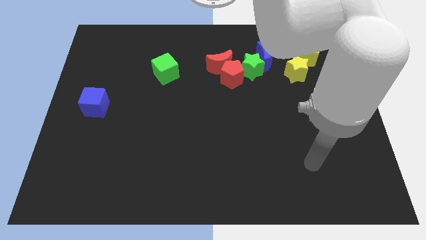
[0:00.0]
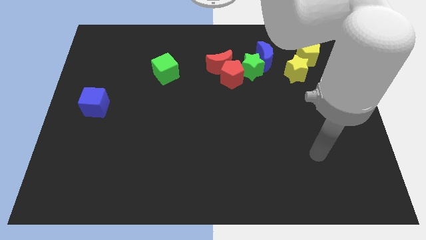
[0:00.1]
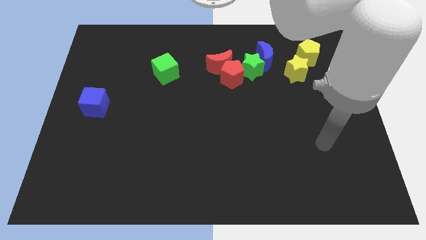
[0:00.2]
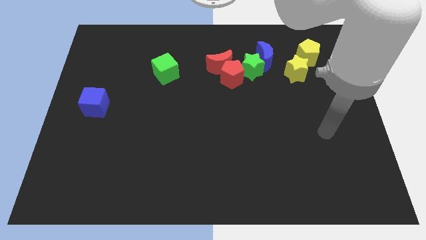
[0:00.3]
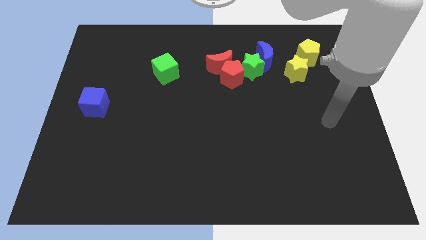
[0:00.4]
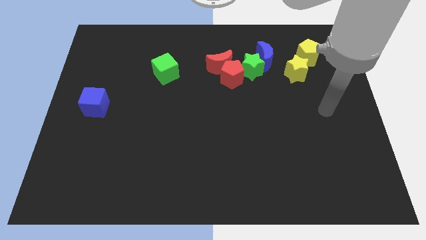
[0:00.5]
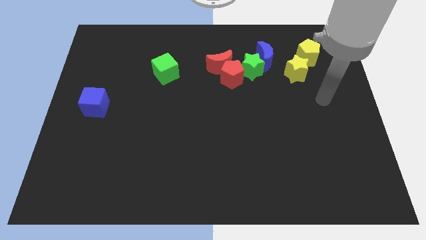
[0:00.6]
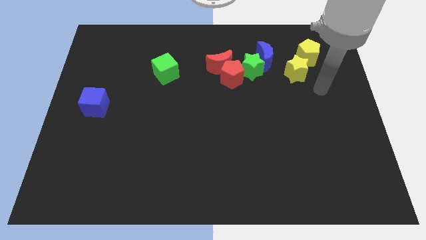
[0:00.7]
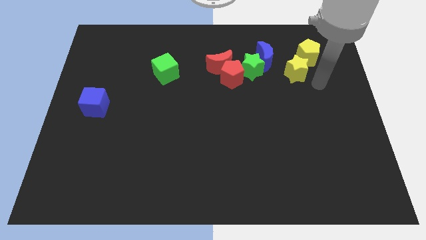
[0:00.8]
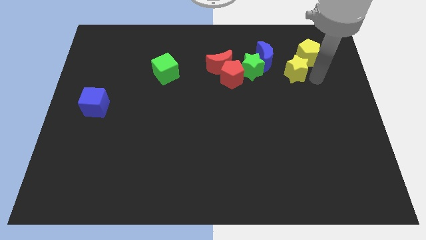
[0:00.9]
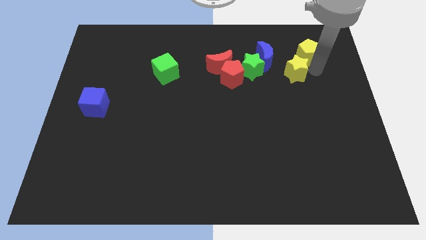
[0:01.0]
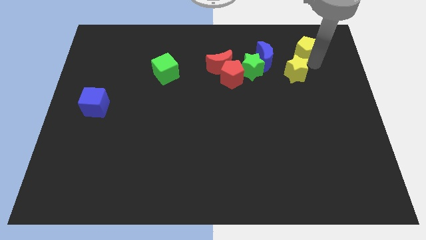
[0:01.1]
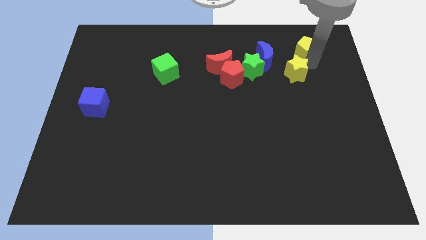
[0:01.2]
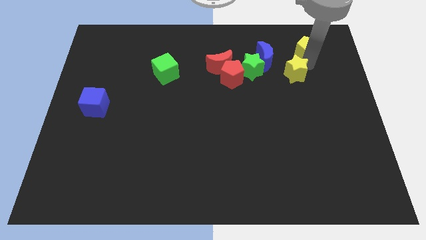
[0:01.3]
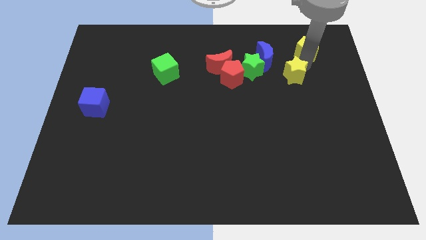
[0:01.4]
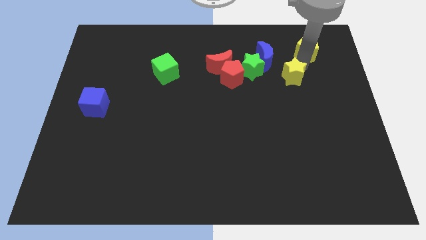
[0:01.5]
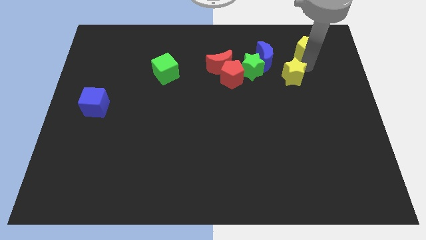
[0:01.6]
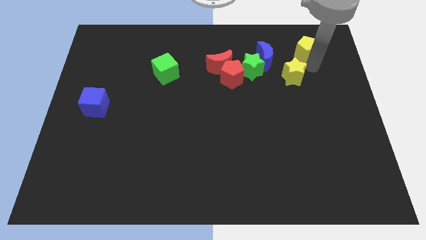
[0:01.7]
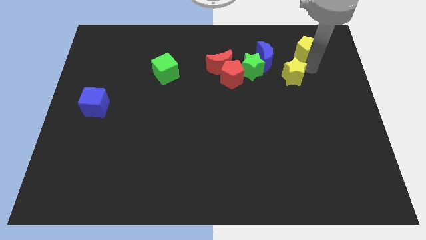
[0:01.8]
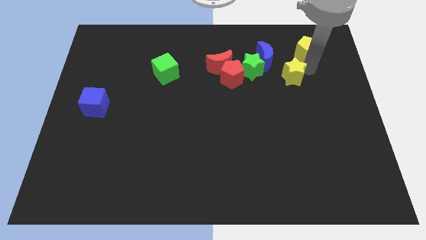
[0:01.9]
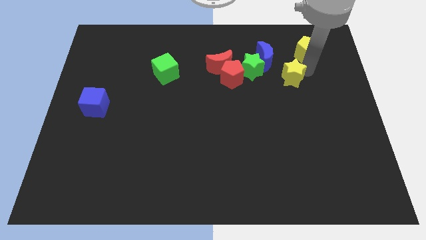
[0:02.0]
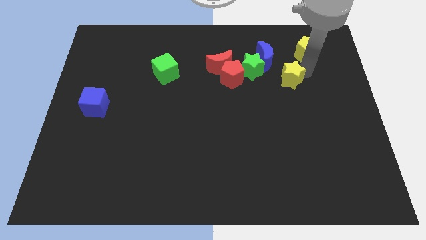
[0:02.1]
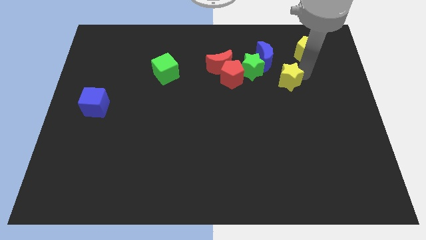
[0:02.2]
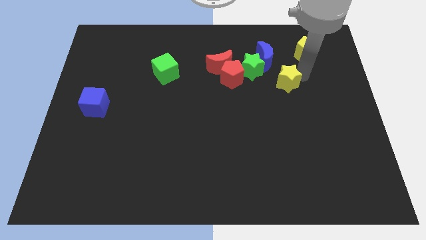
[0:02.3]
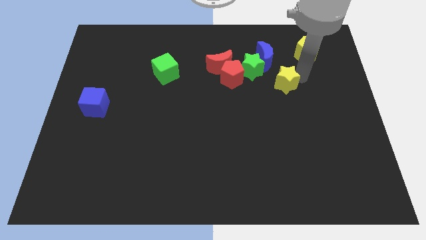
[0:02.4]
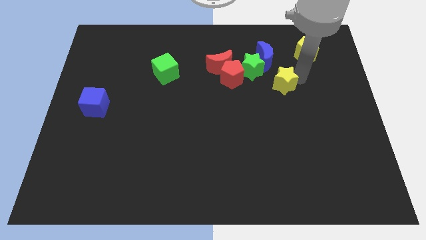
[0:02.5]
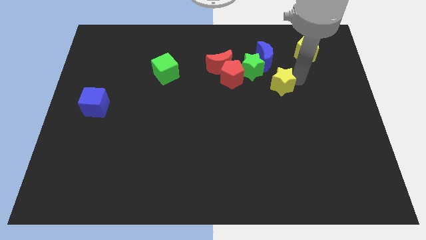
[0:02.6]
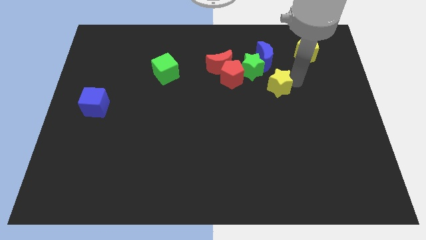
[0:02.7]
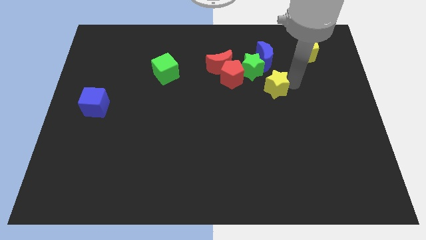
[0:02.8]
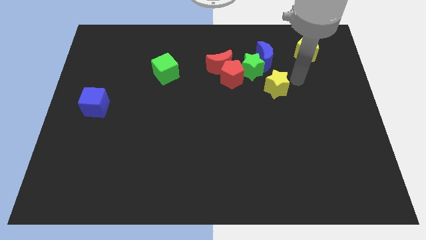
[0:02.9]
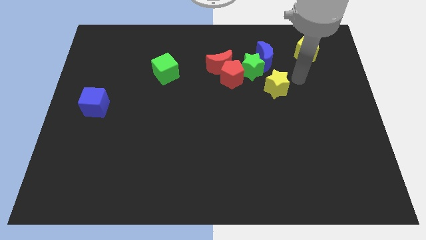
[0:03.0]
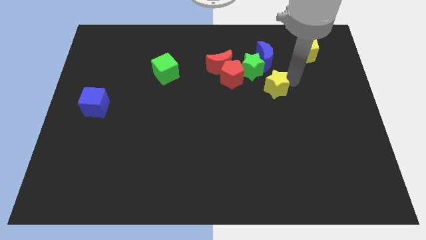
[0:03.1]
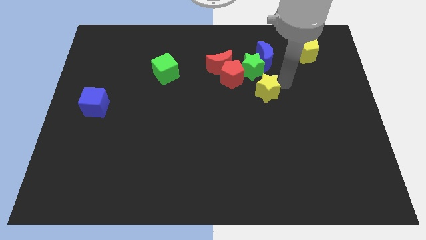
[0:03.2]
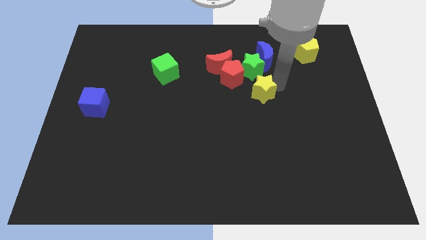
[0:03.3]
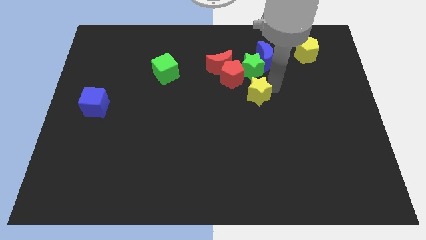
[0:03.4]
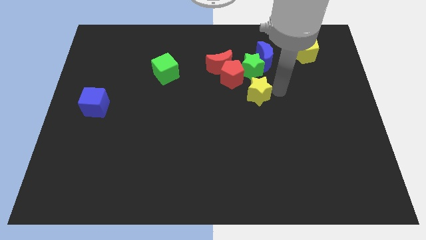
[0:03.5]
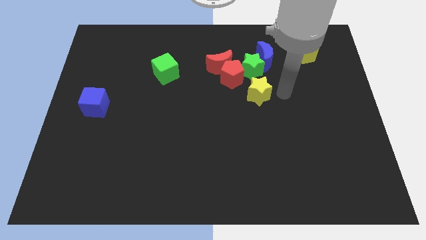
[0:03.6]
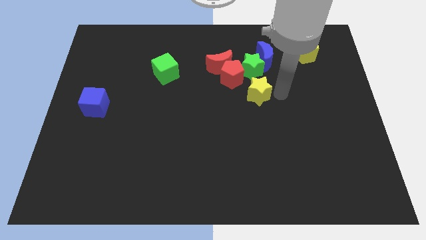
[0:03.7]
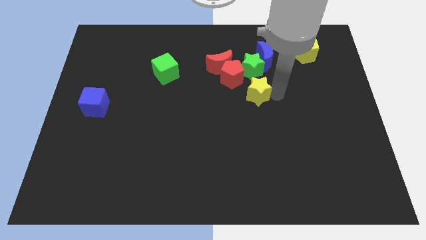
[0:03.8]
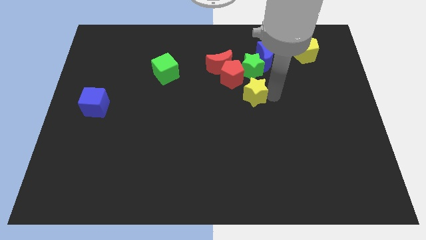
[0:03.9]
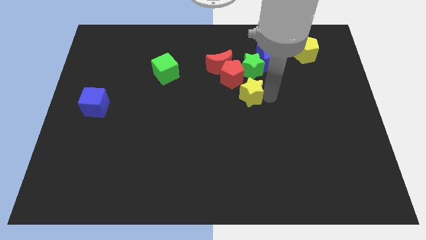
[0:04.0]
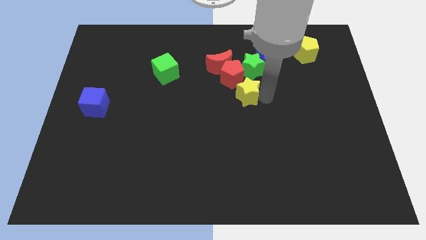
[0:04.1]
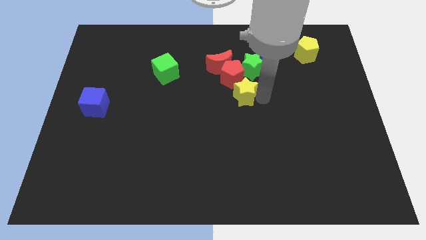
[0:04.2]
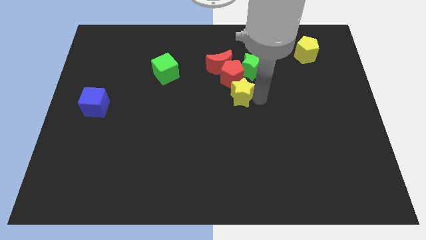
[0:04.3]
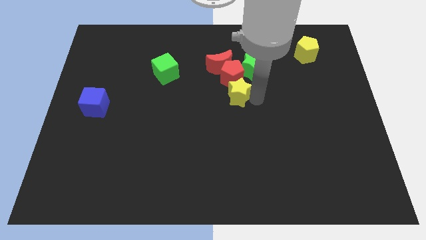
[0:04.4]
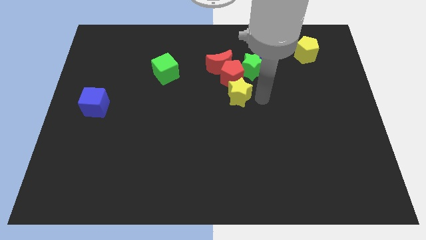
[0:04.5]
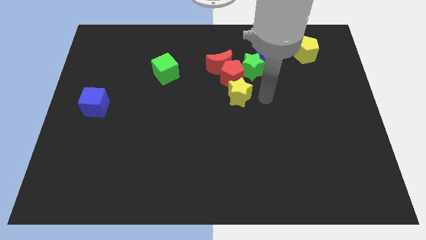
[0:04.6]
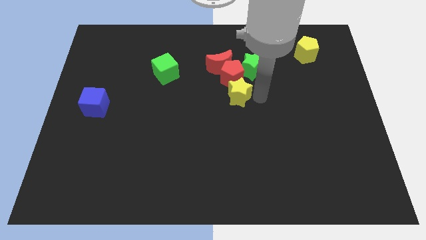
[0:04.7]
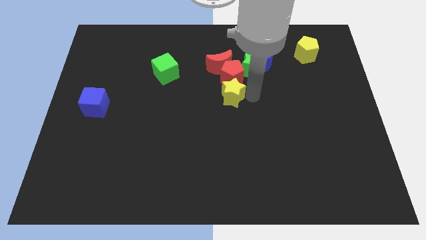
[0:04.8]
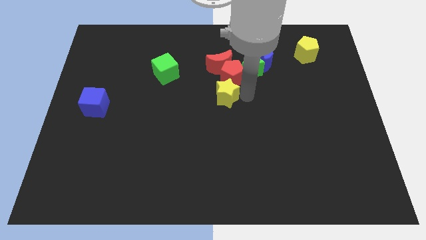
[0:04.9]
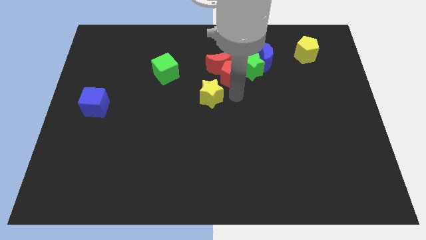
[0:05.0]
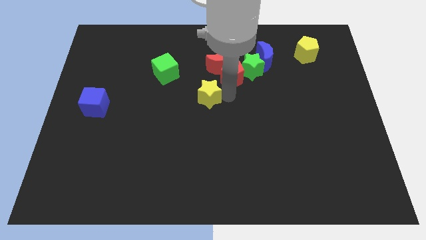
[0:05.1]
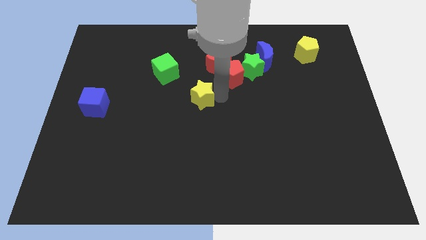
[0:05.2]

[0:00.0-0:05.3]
move the yellow star to the bottom right side of the green cube

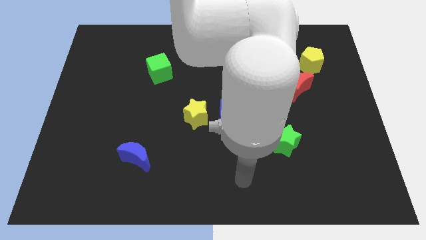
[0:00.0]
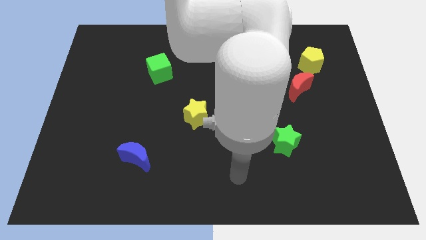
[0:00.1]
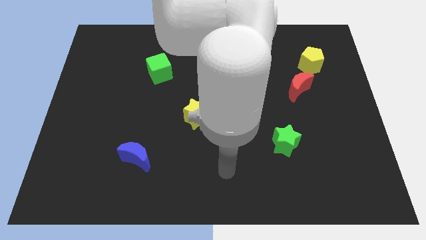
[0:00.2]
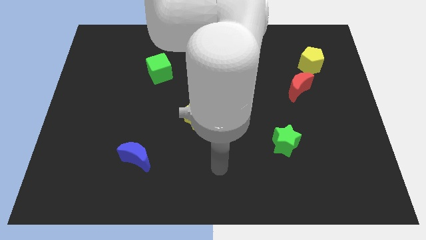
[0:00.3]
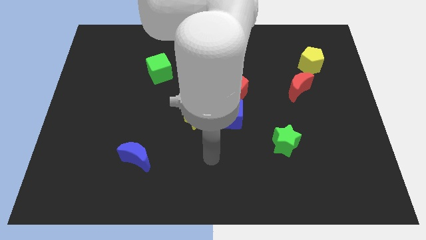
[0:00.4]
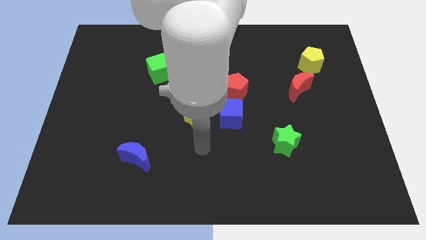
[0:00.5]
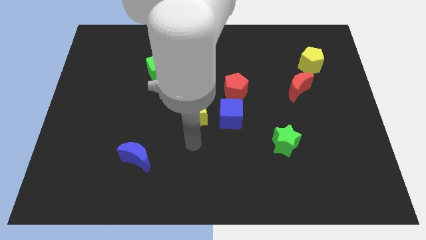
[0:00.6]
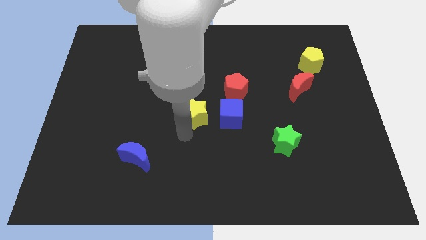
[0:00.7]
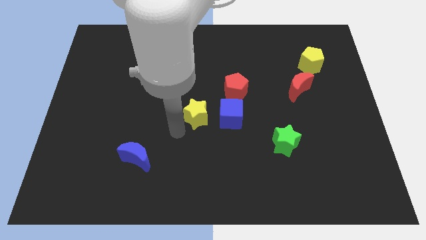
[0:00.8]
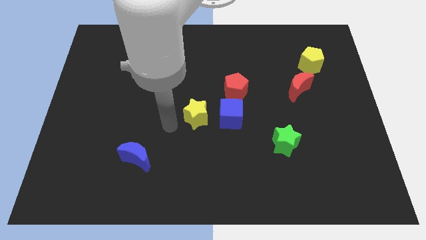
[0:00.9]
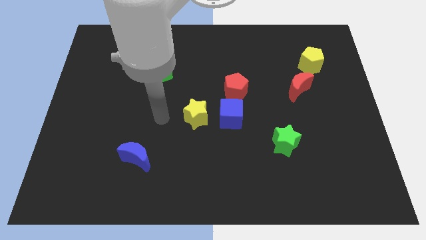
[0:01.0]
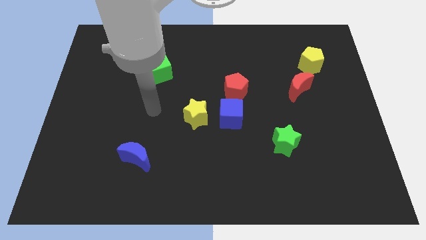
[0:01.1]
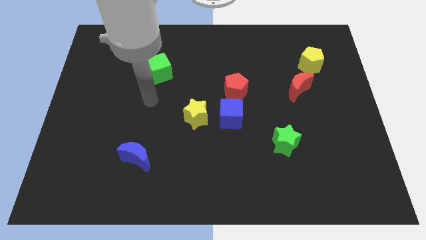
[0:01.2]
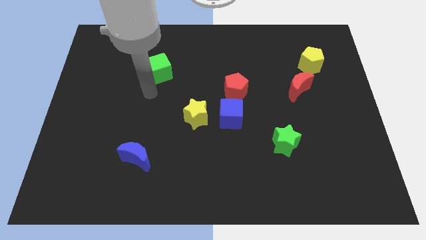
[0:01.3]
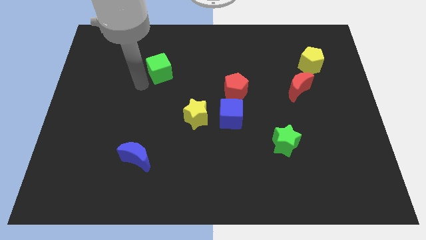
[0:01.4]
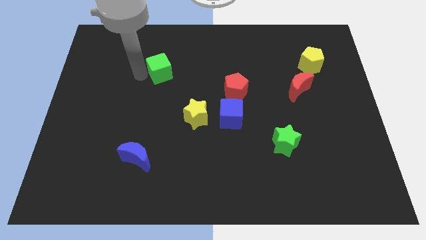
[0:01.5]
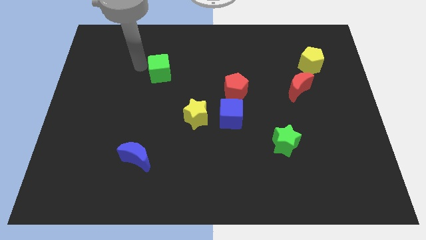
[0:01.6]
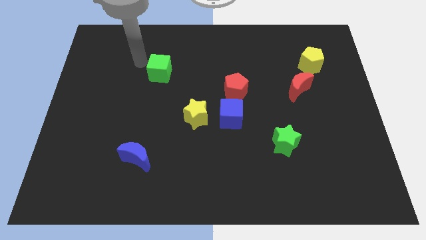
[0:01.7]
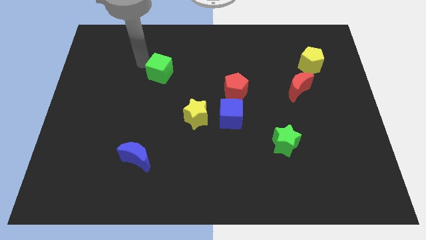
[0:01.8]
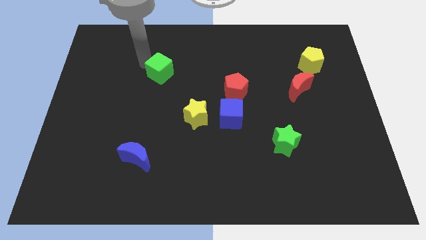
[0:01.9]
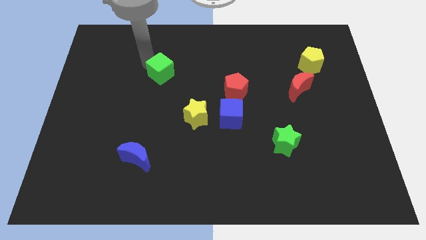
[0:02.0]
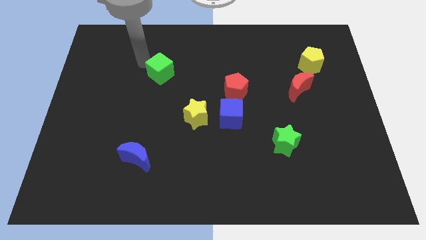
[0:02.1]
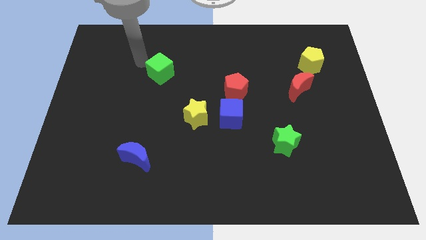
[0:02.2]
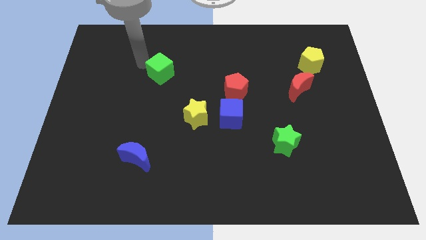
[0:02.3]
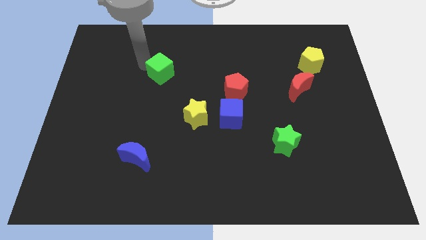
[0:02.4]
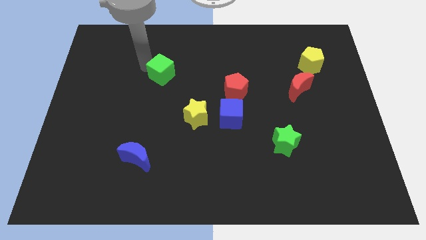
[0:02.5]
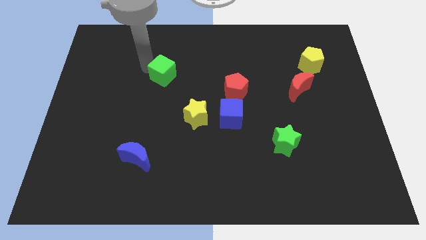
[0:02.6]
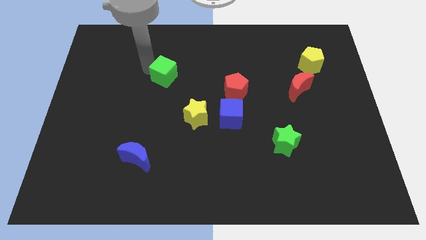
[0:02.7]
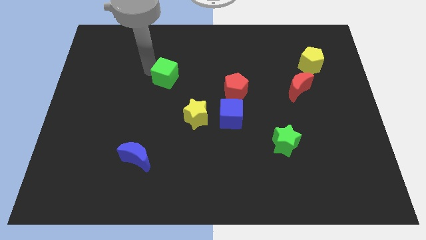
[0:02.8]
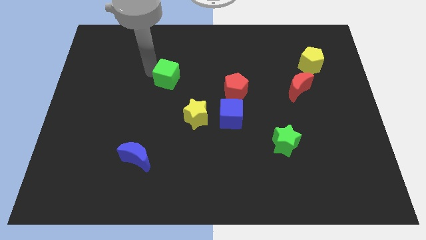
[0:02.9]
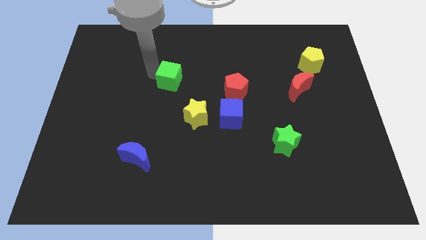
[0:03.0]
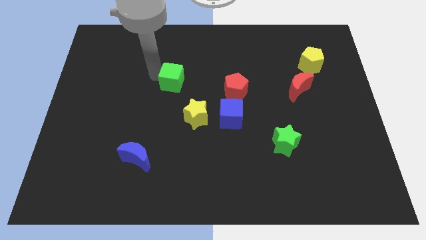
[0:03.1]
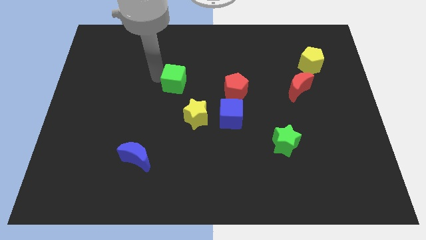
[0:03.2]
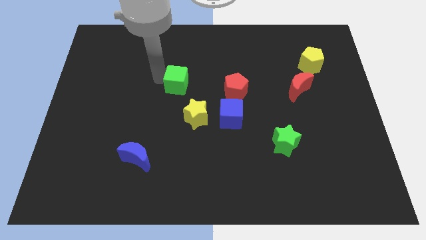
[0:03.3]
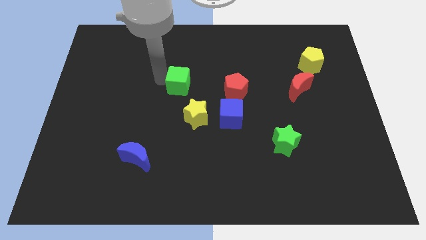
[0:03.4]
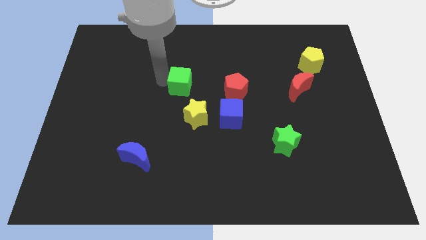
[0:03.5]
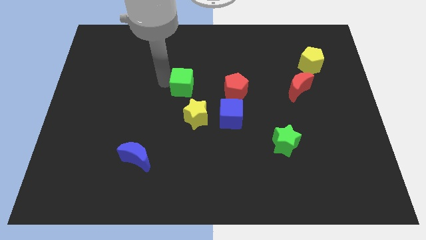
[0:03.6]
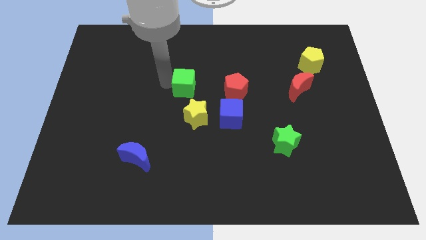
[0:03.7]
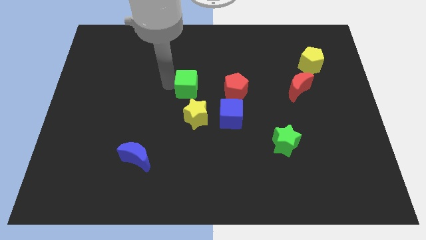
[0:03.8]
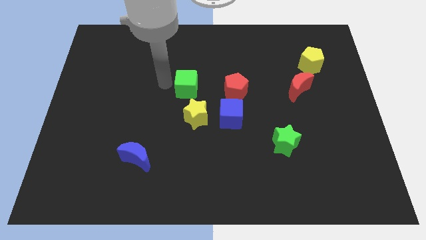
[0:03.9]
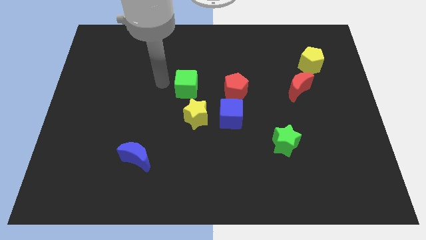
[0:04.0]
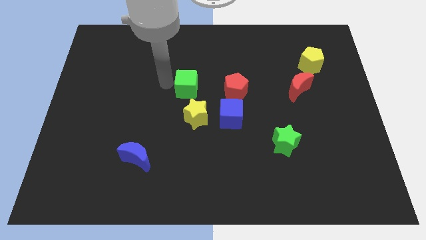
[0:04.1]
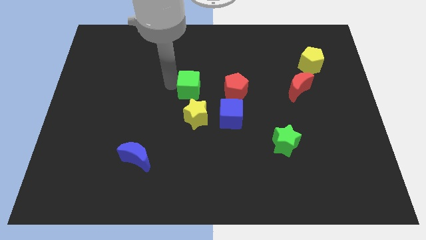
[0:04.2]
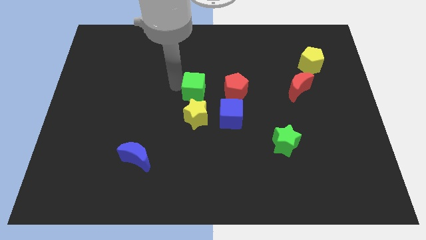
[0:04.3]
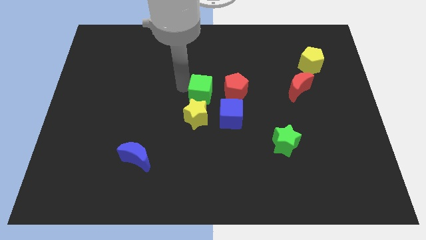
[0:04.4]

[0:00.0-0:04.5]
push the green cube to the top right side of the yellow star
